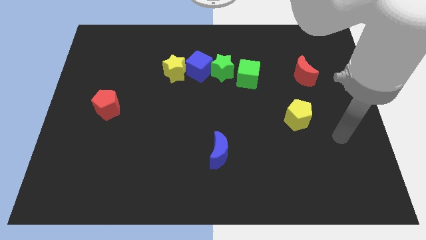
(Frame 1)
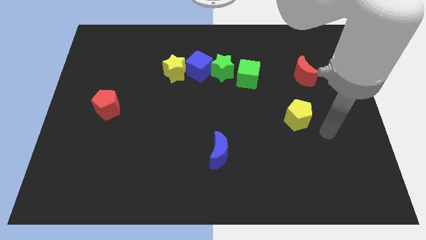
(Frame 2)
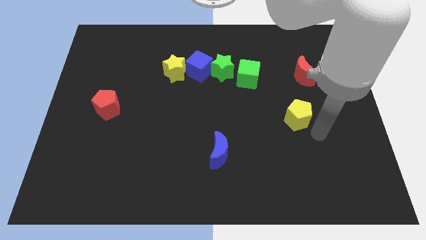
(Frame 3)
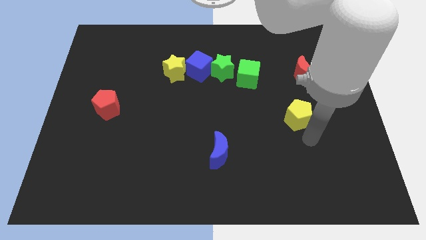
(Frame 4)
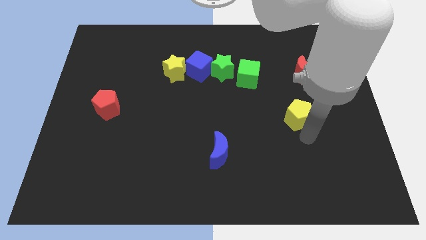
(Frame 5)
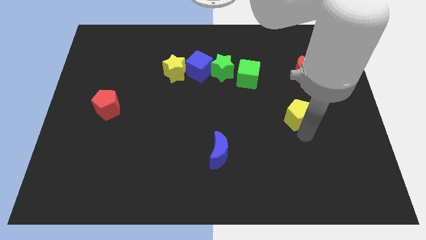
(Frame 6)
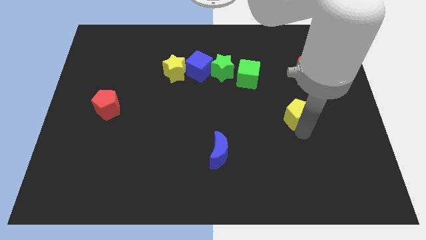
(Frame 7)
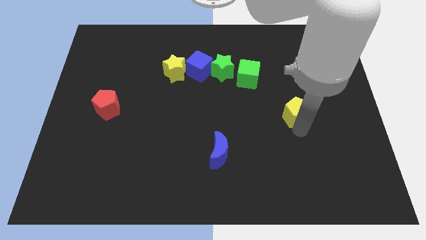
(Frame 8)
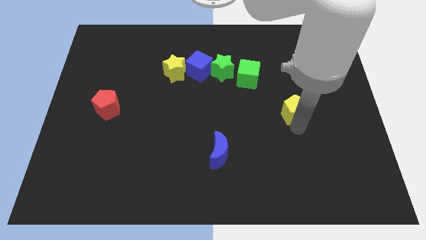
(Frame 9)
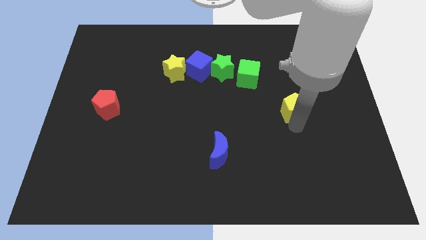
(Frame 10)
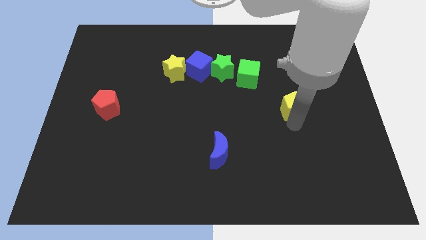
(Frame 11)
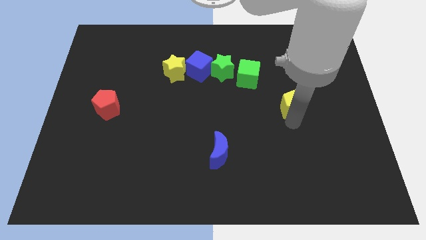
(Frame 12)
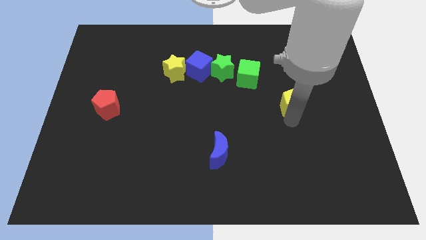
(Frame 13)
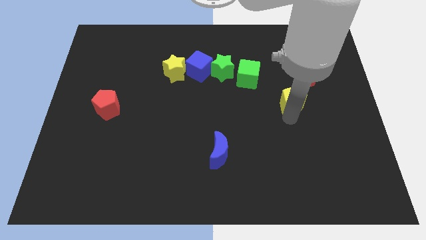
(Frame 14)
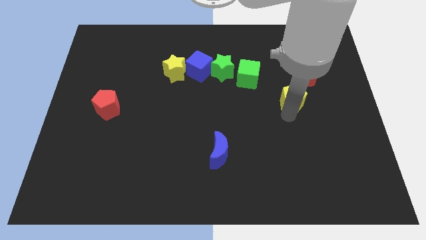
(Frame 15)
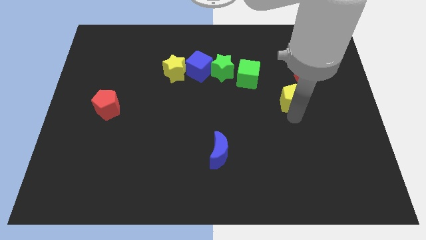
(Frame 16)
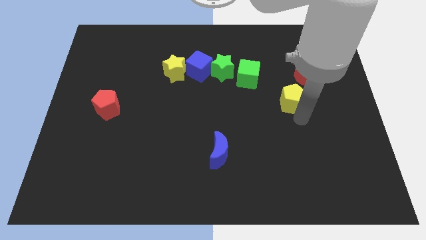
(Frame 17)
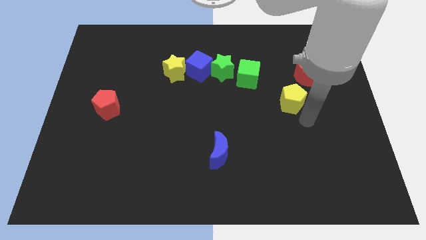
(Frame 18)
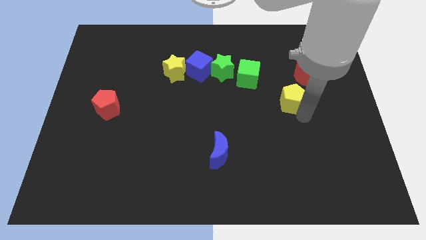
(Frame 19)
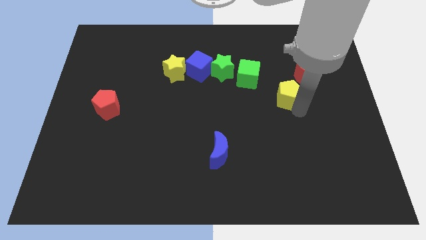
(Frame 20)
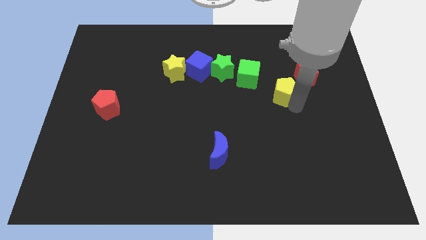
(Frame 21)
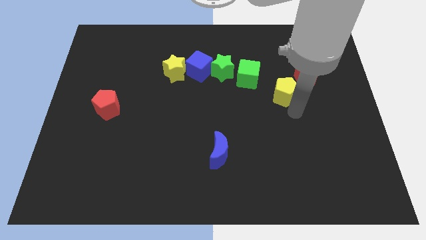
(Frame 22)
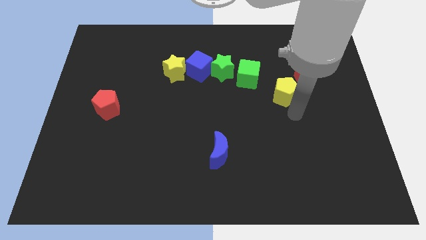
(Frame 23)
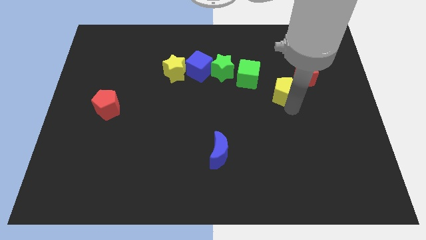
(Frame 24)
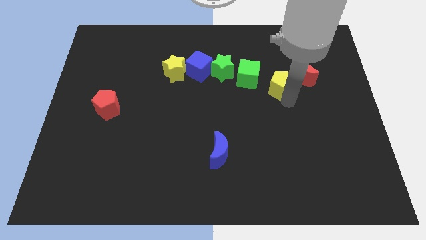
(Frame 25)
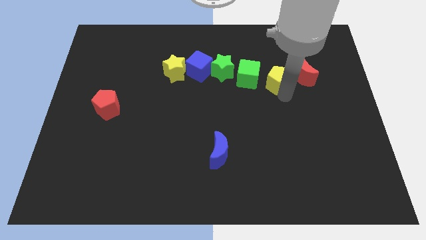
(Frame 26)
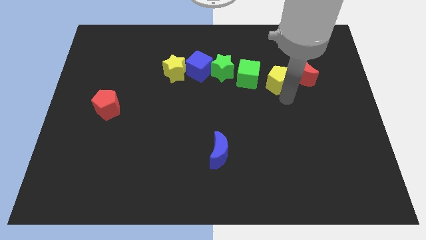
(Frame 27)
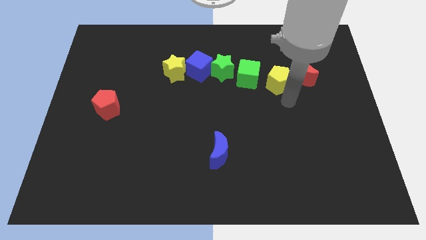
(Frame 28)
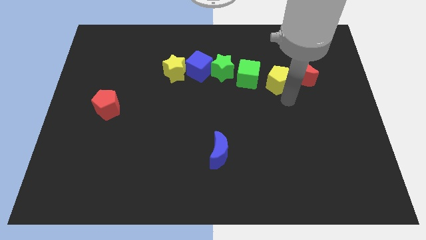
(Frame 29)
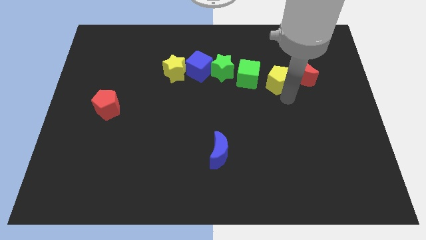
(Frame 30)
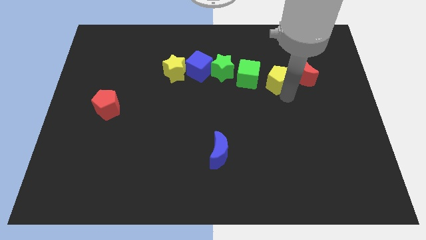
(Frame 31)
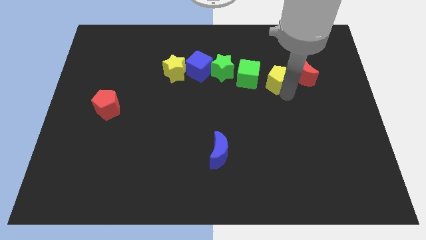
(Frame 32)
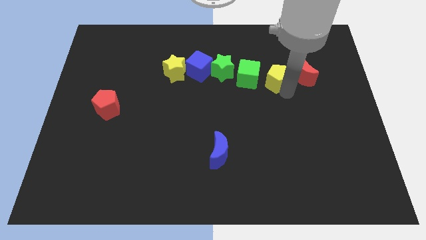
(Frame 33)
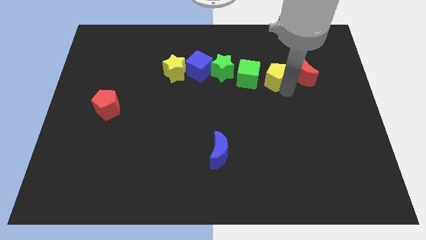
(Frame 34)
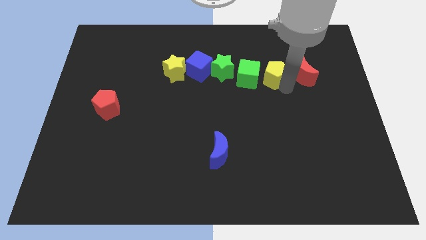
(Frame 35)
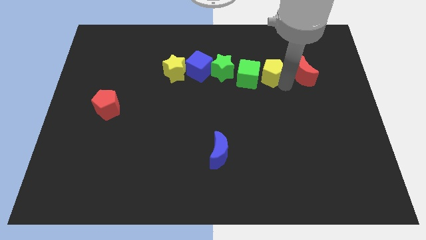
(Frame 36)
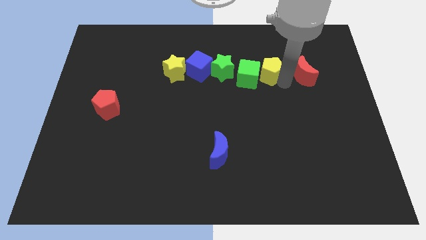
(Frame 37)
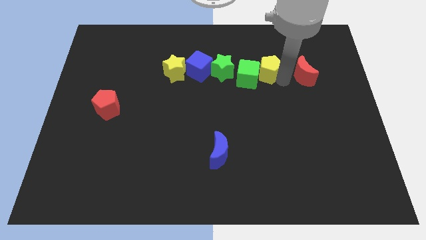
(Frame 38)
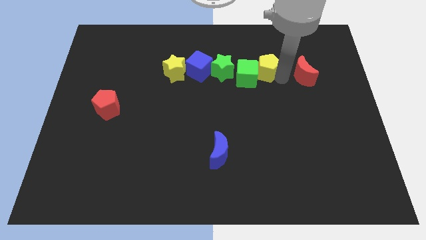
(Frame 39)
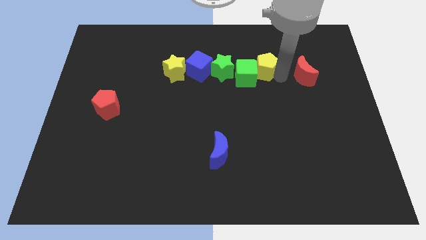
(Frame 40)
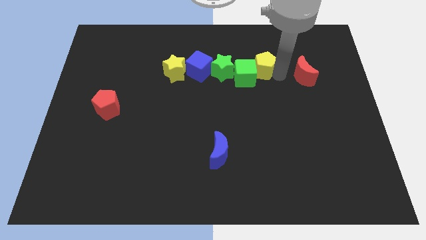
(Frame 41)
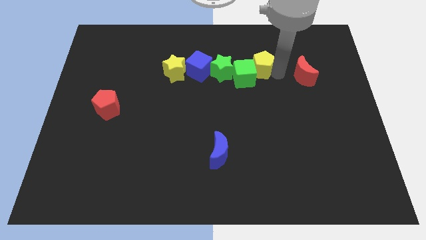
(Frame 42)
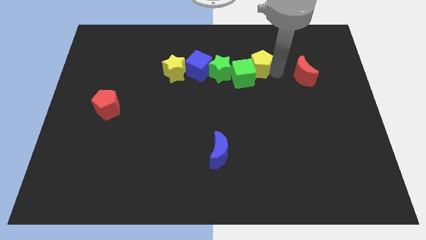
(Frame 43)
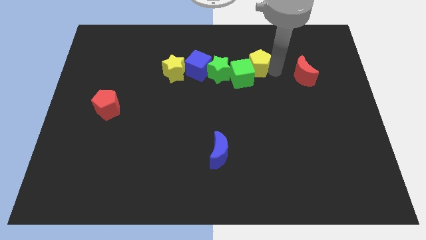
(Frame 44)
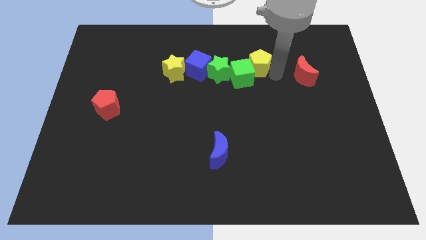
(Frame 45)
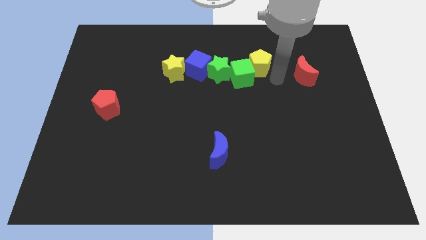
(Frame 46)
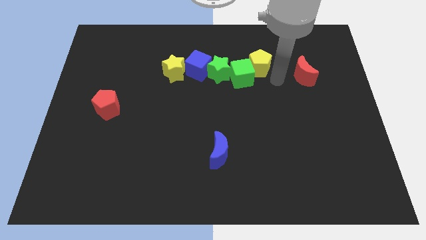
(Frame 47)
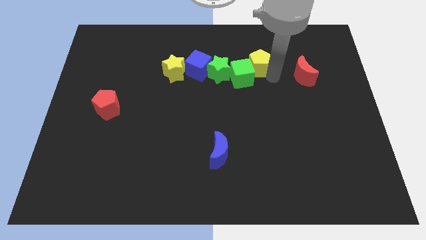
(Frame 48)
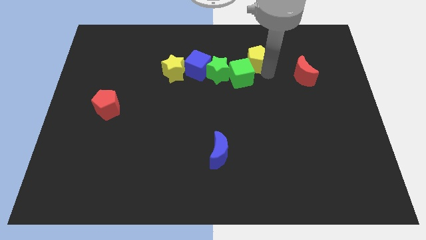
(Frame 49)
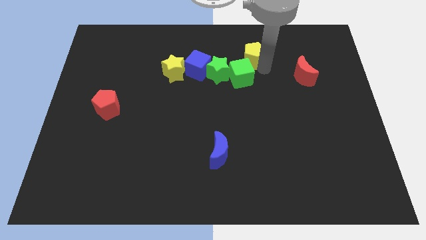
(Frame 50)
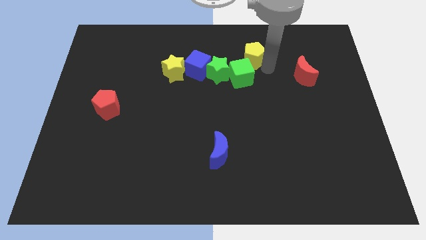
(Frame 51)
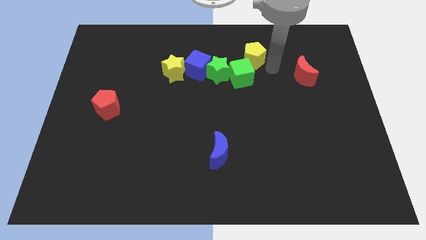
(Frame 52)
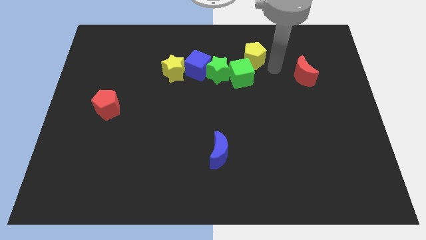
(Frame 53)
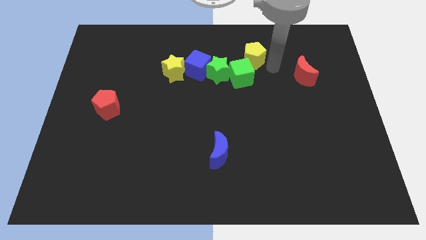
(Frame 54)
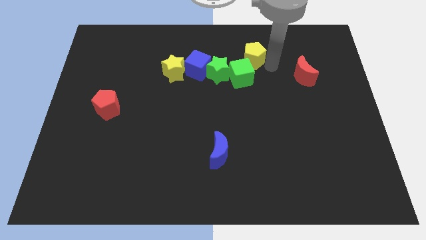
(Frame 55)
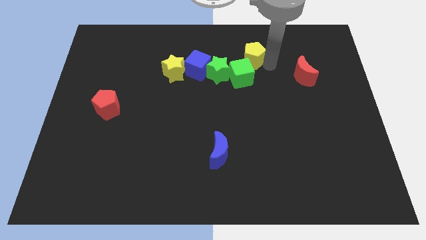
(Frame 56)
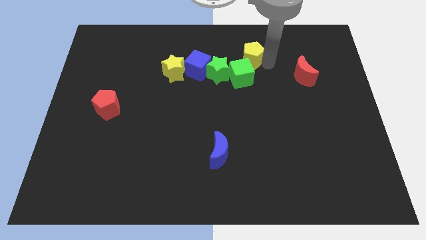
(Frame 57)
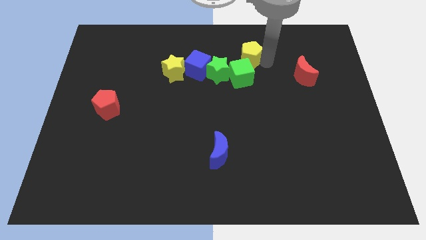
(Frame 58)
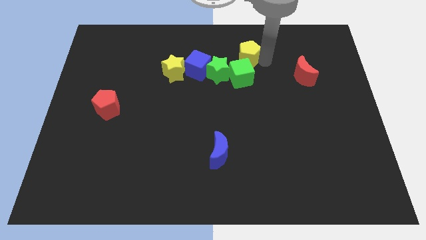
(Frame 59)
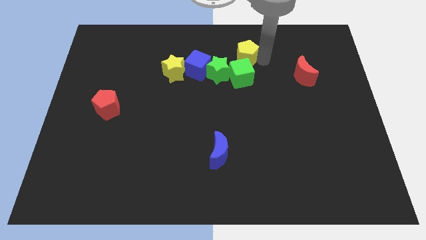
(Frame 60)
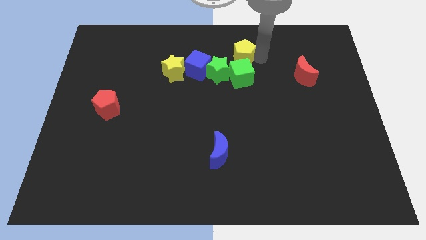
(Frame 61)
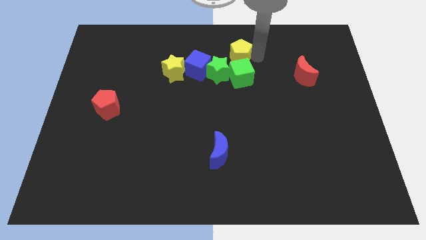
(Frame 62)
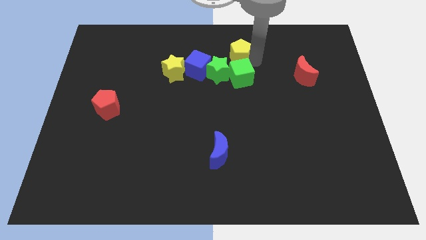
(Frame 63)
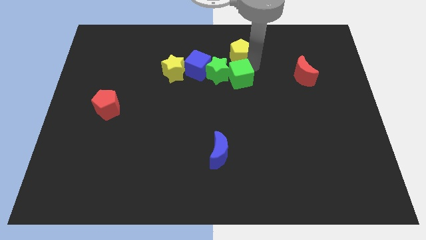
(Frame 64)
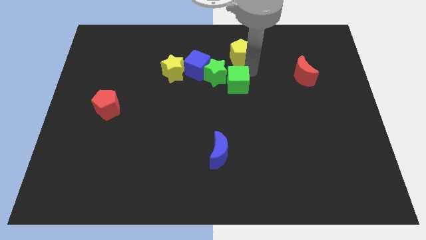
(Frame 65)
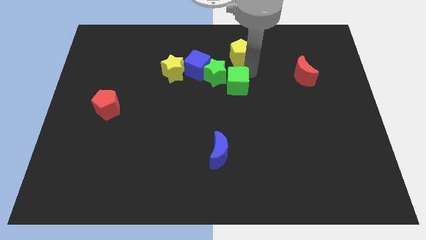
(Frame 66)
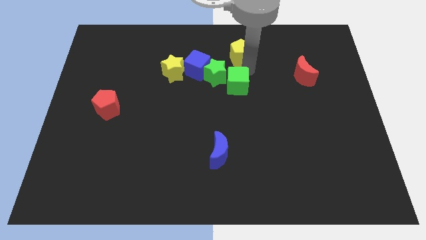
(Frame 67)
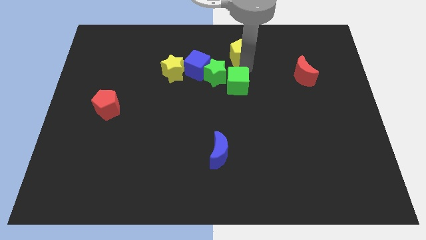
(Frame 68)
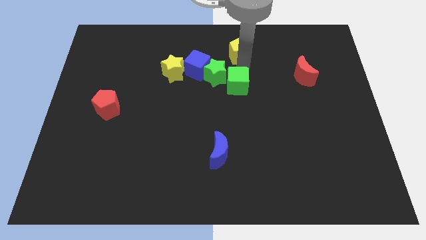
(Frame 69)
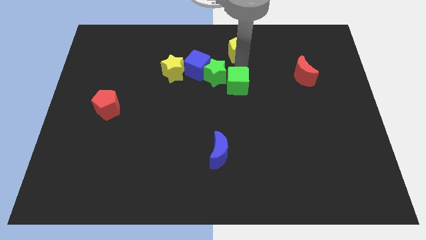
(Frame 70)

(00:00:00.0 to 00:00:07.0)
move the yellow pentagon to the top
